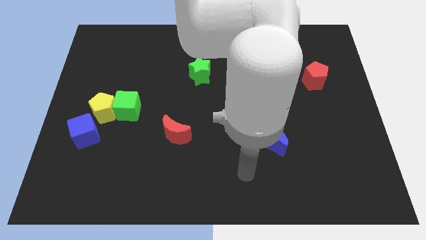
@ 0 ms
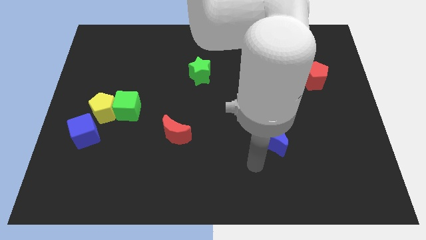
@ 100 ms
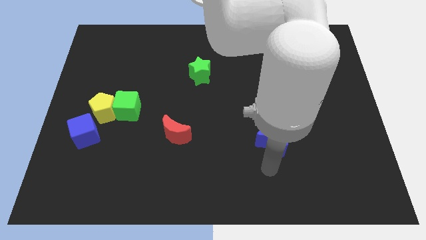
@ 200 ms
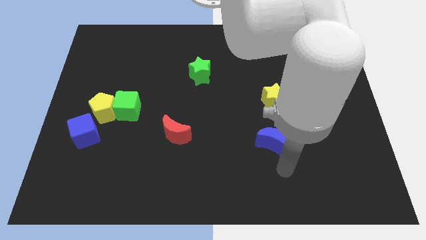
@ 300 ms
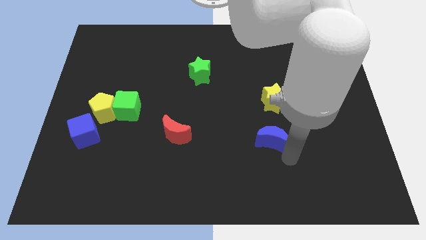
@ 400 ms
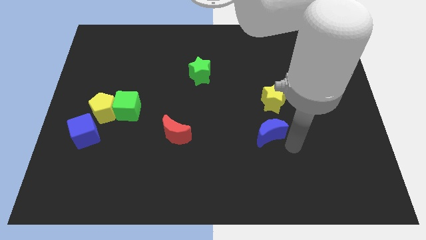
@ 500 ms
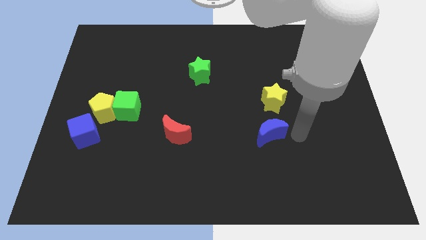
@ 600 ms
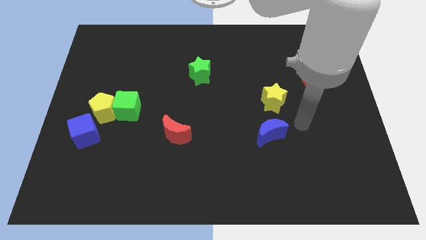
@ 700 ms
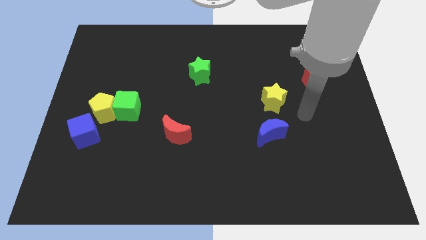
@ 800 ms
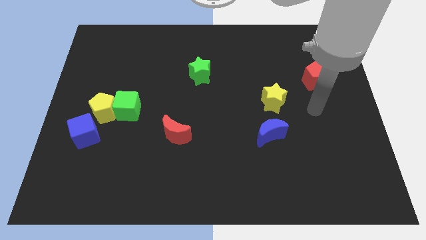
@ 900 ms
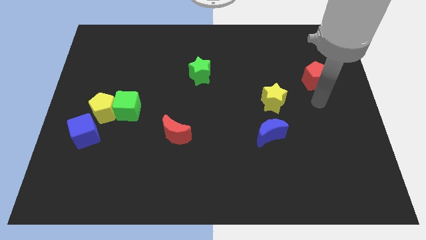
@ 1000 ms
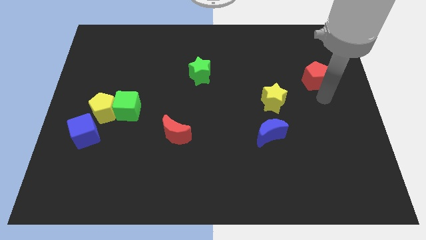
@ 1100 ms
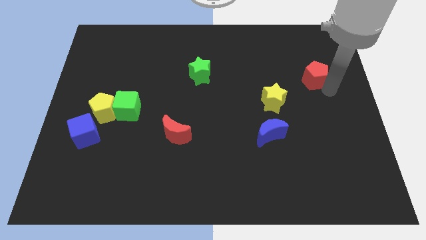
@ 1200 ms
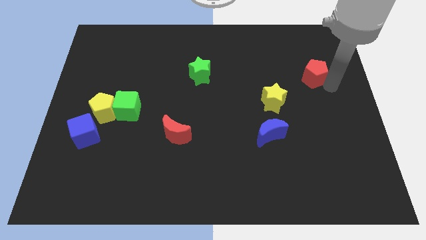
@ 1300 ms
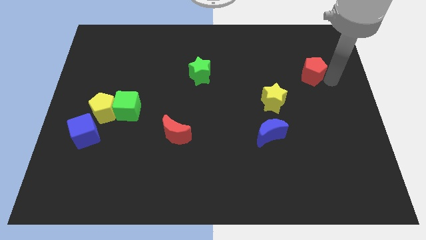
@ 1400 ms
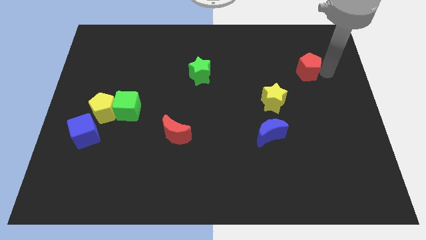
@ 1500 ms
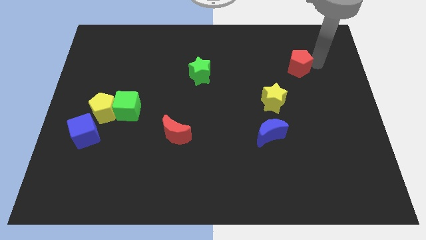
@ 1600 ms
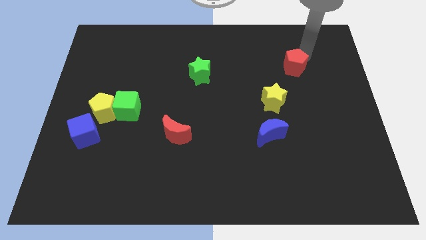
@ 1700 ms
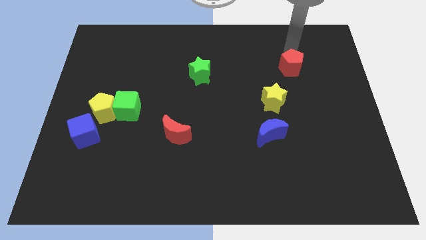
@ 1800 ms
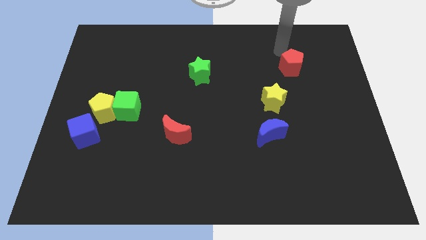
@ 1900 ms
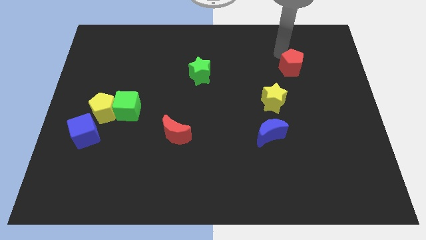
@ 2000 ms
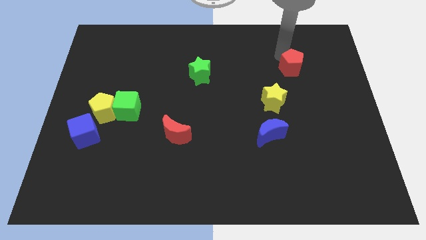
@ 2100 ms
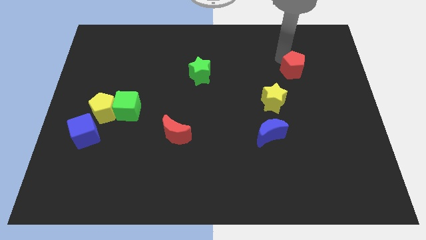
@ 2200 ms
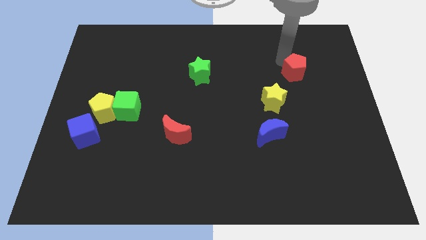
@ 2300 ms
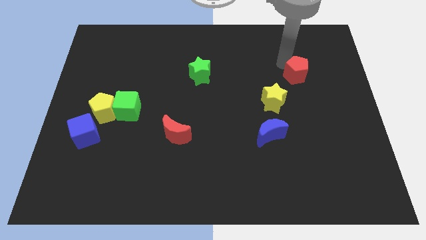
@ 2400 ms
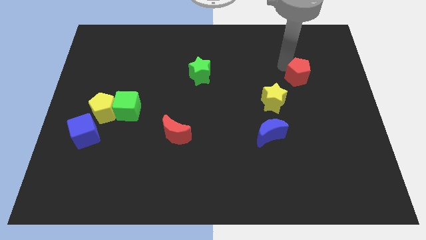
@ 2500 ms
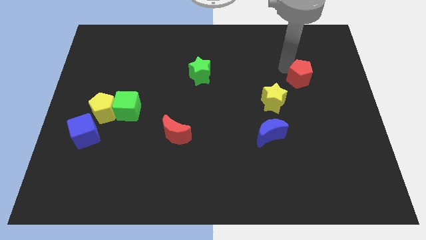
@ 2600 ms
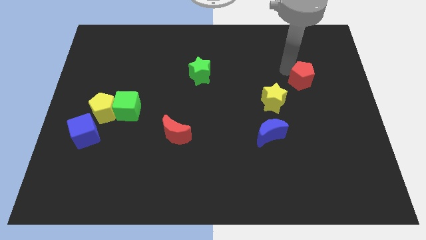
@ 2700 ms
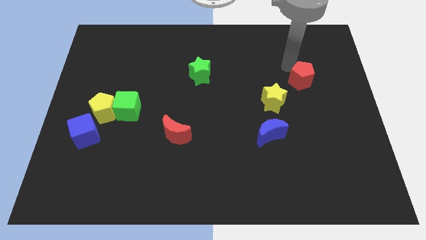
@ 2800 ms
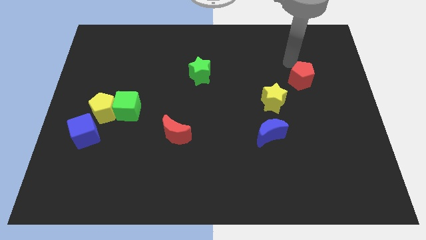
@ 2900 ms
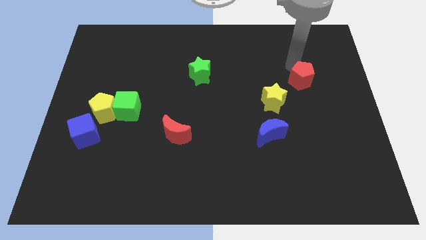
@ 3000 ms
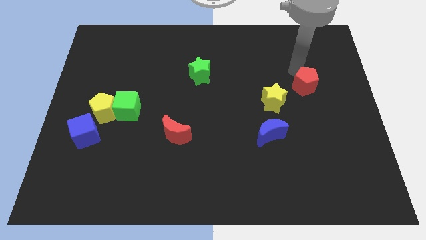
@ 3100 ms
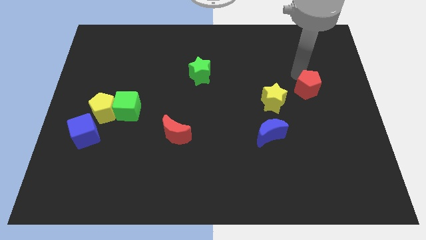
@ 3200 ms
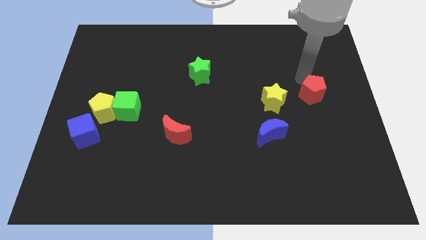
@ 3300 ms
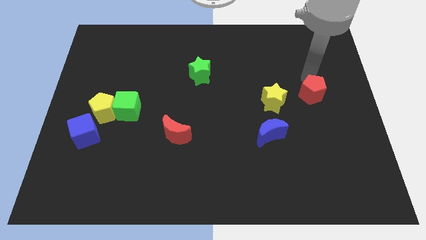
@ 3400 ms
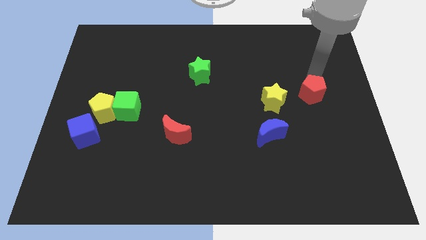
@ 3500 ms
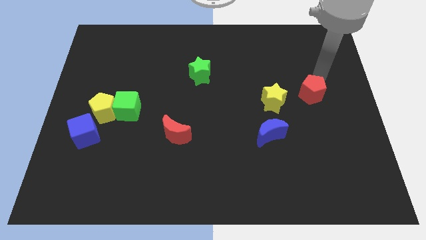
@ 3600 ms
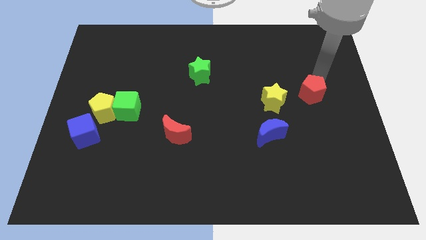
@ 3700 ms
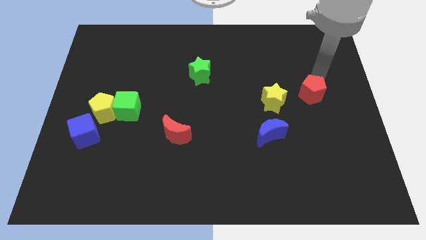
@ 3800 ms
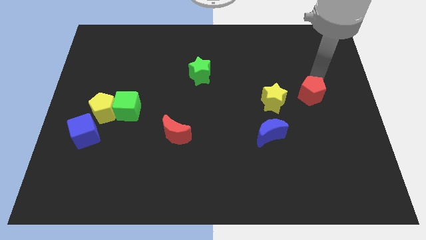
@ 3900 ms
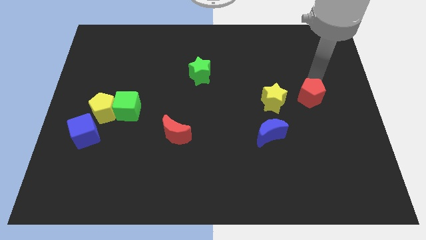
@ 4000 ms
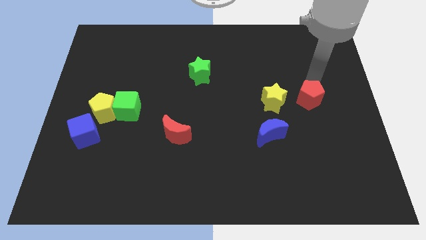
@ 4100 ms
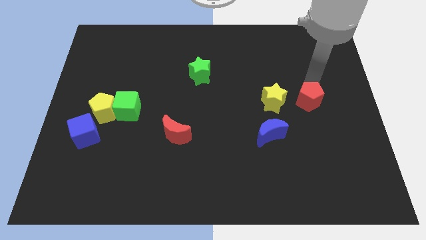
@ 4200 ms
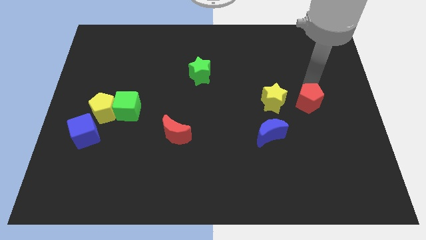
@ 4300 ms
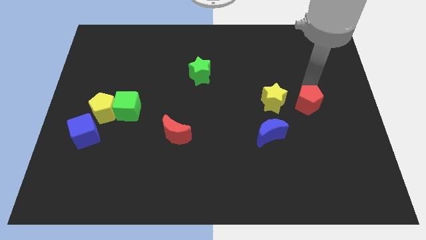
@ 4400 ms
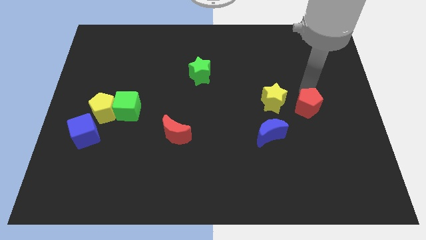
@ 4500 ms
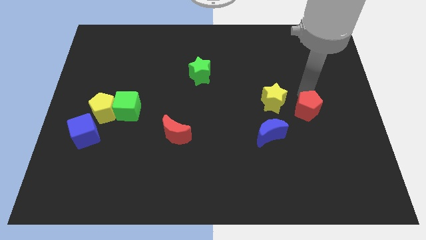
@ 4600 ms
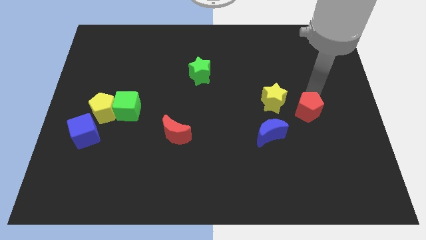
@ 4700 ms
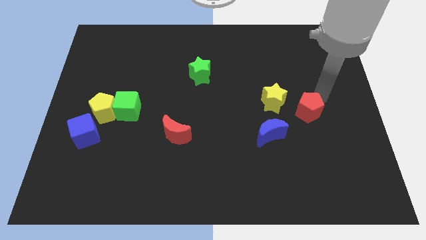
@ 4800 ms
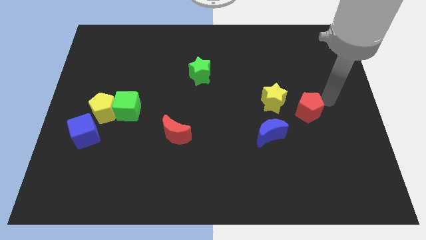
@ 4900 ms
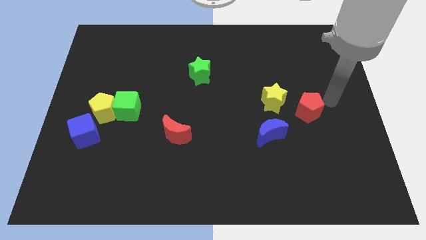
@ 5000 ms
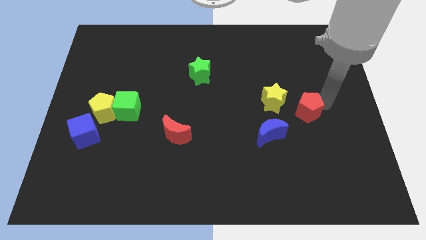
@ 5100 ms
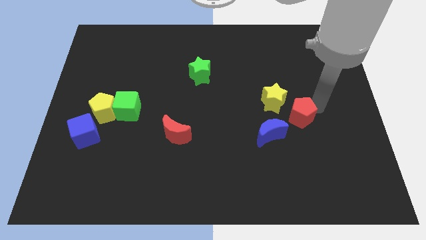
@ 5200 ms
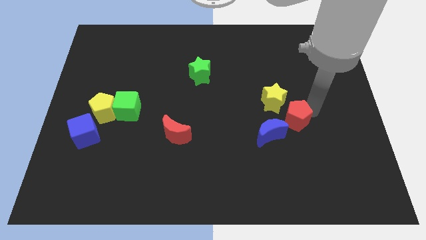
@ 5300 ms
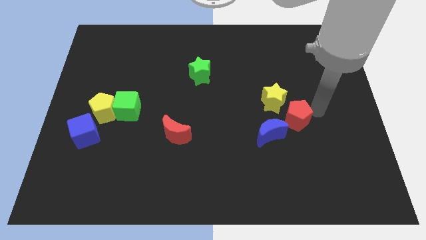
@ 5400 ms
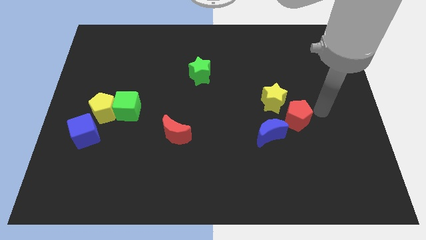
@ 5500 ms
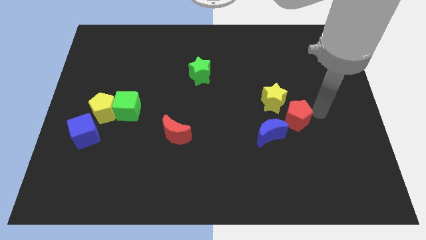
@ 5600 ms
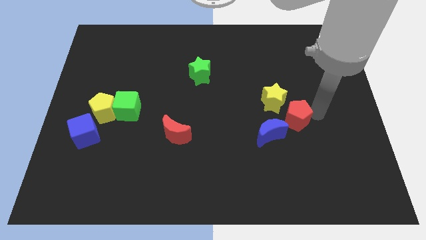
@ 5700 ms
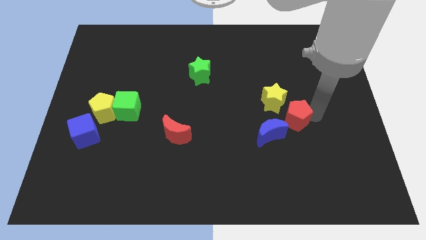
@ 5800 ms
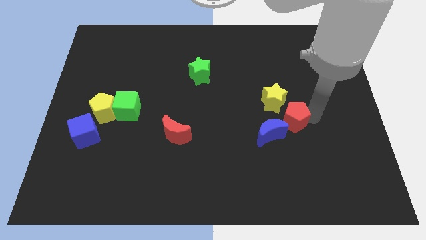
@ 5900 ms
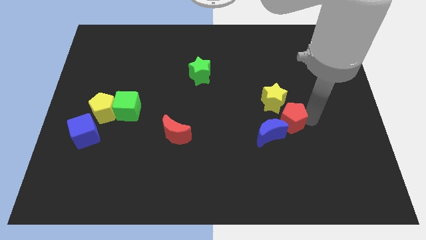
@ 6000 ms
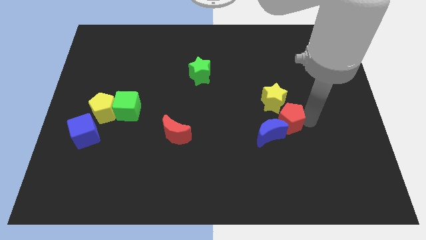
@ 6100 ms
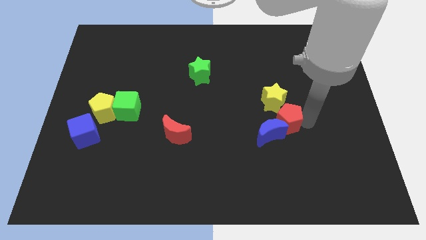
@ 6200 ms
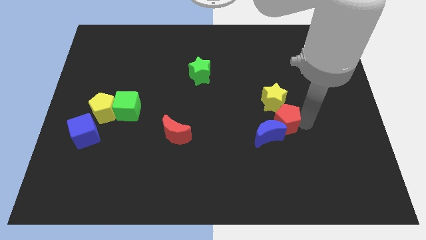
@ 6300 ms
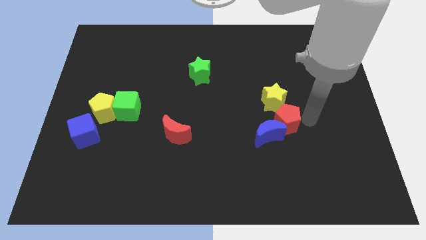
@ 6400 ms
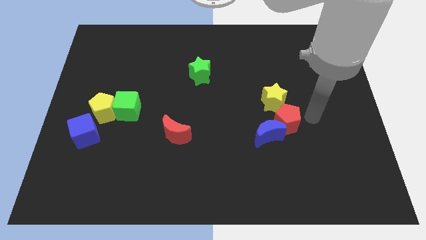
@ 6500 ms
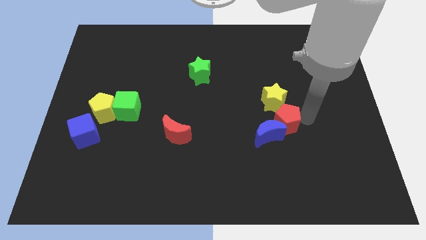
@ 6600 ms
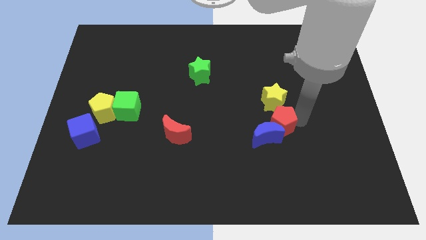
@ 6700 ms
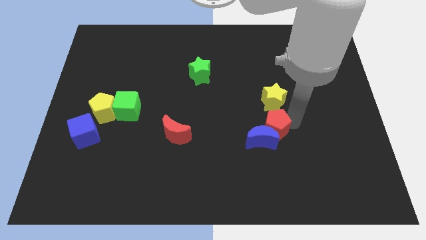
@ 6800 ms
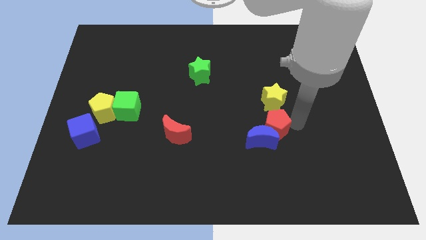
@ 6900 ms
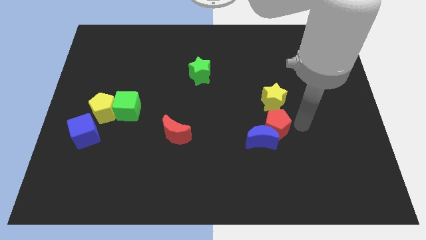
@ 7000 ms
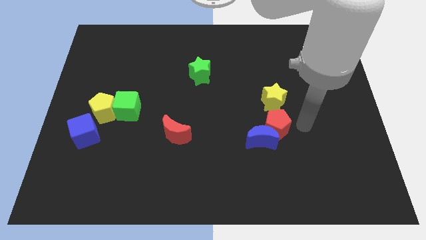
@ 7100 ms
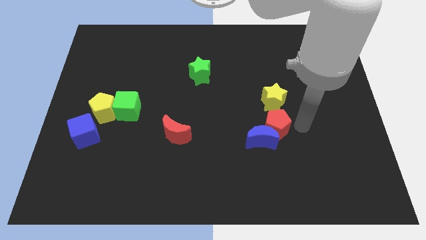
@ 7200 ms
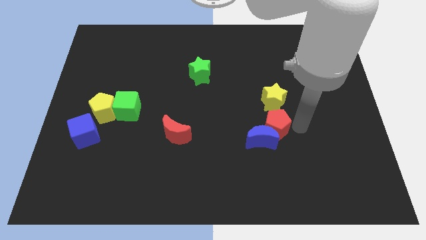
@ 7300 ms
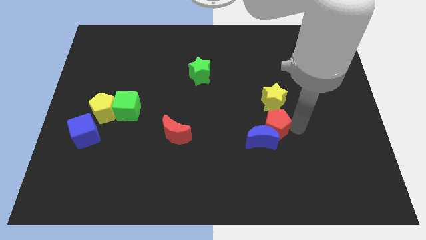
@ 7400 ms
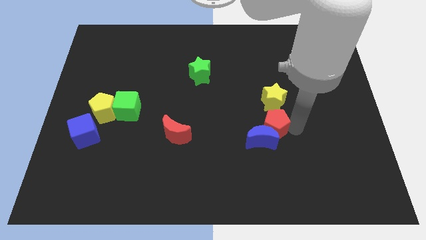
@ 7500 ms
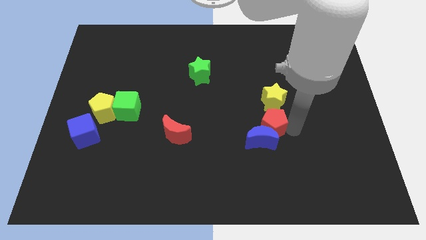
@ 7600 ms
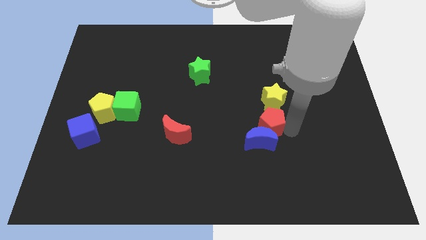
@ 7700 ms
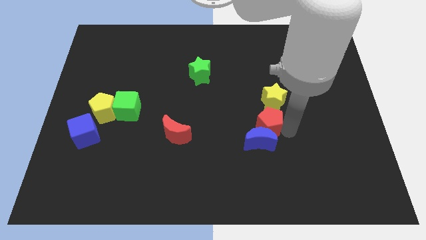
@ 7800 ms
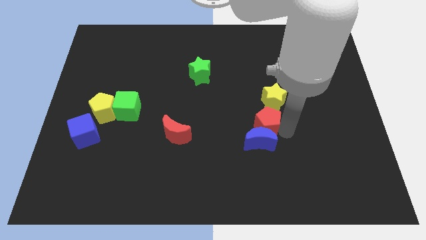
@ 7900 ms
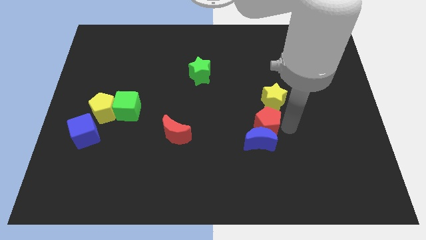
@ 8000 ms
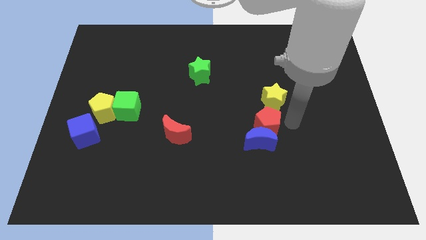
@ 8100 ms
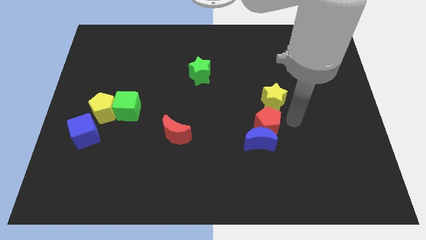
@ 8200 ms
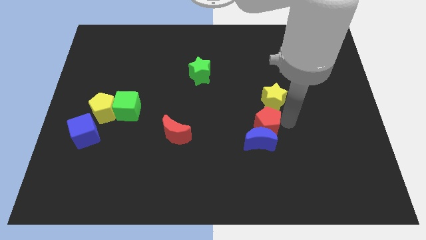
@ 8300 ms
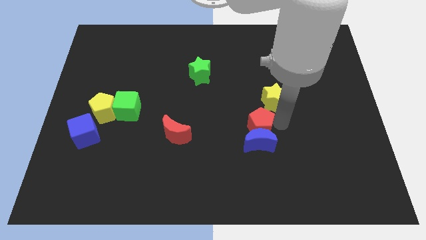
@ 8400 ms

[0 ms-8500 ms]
push the red pentagon down and left

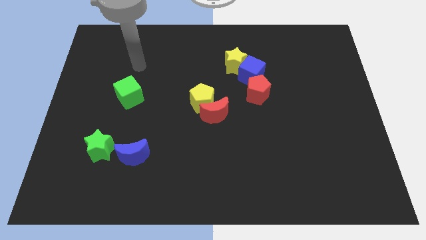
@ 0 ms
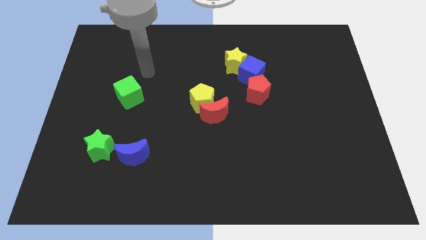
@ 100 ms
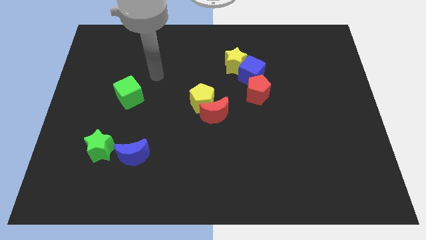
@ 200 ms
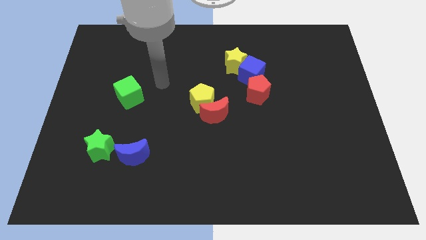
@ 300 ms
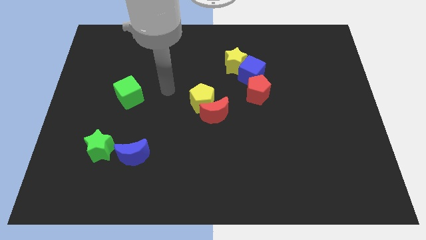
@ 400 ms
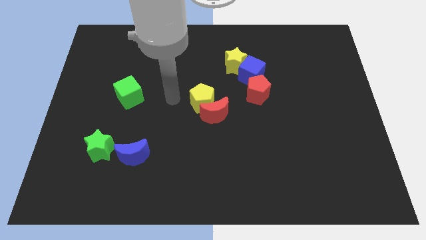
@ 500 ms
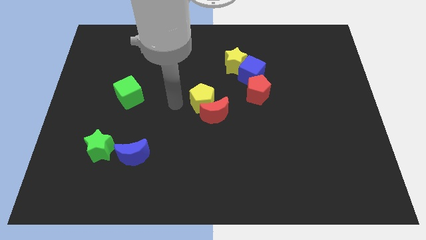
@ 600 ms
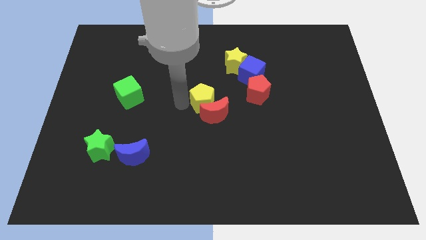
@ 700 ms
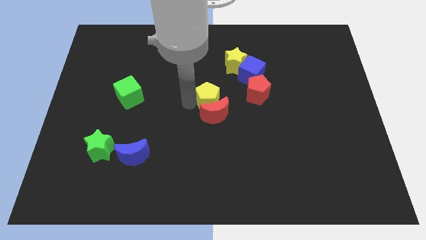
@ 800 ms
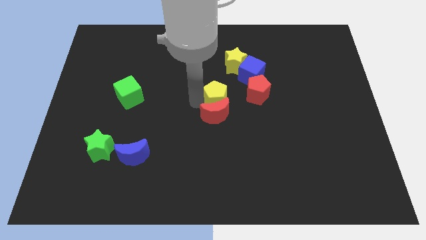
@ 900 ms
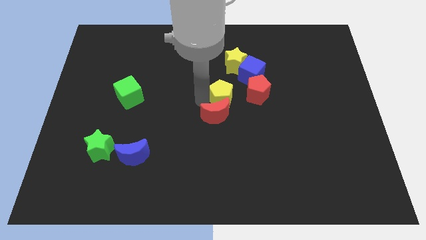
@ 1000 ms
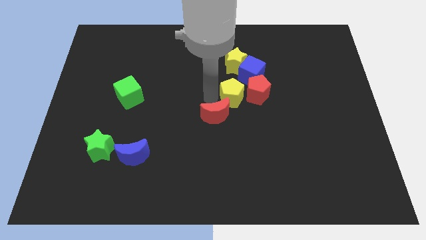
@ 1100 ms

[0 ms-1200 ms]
move the yellow pentagon a little bit to the right
